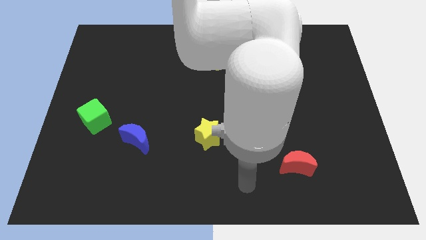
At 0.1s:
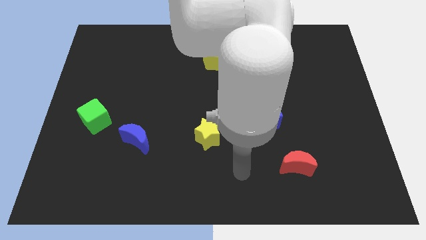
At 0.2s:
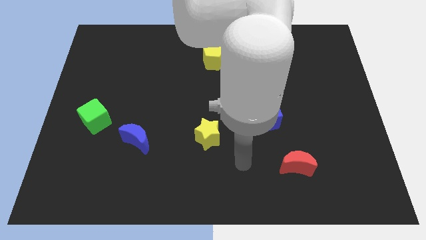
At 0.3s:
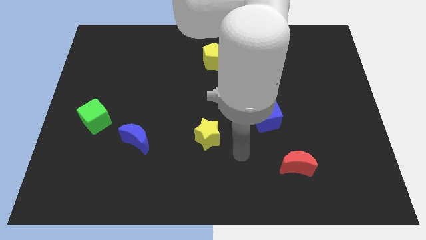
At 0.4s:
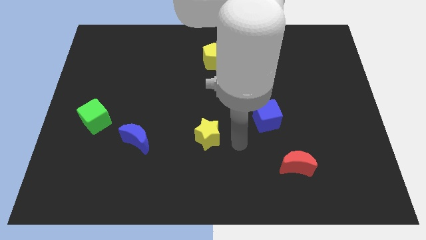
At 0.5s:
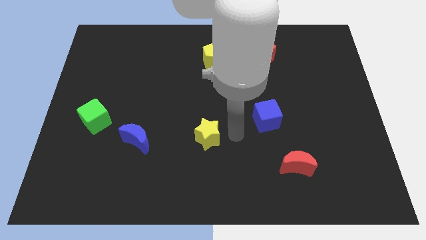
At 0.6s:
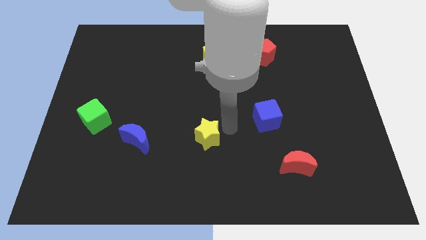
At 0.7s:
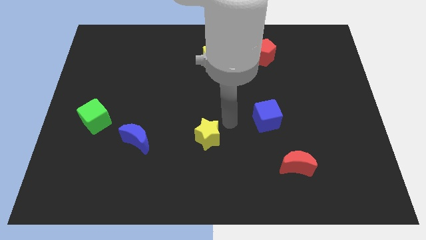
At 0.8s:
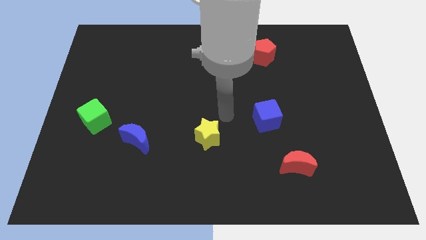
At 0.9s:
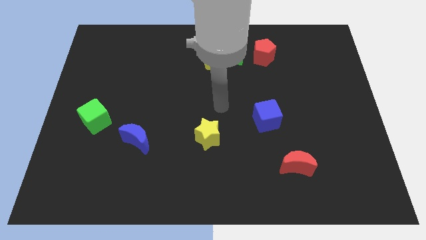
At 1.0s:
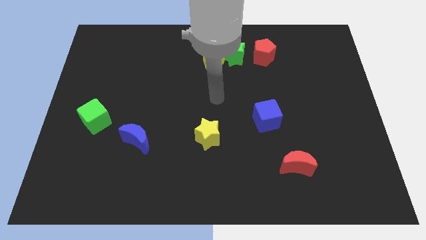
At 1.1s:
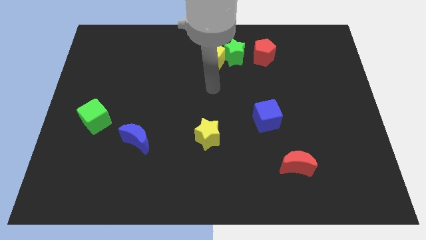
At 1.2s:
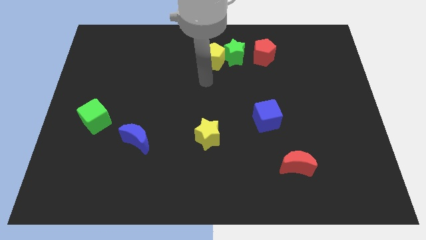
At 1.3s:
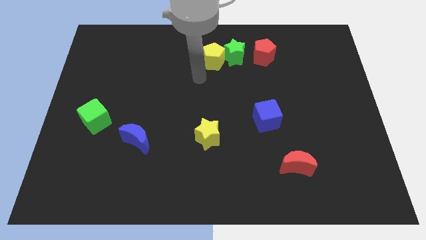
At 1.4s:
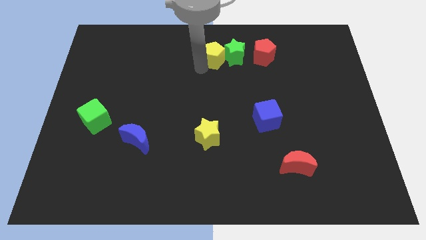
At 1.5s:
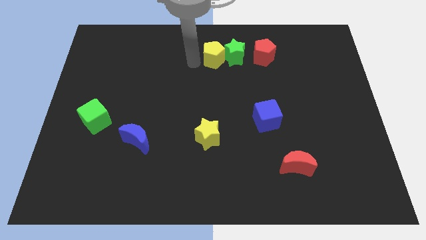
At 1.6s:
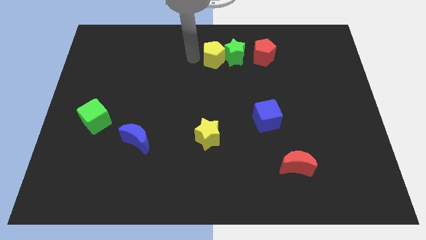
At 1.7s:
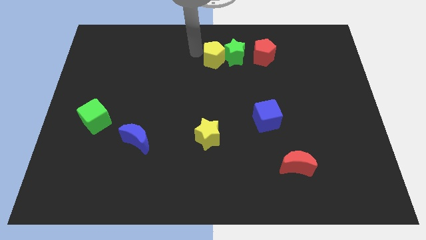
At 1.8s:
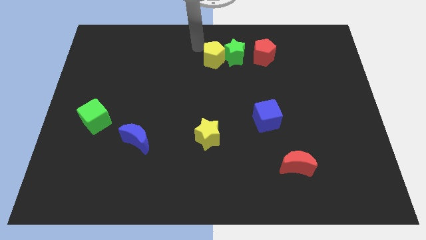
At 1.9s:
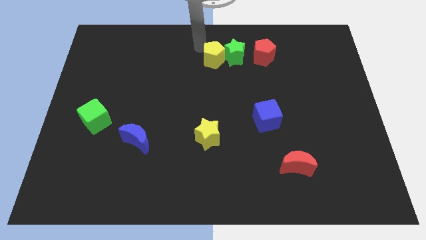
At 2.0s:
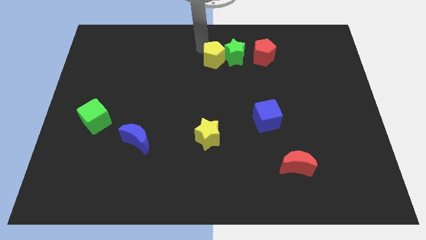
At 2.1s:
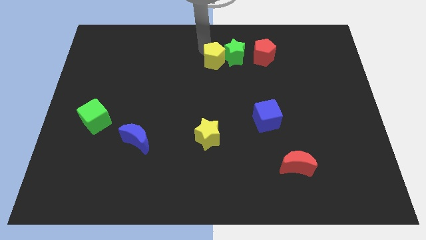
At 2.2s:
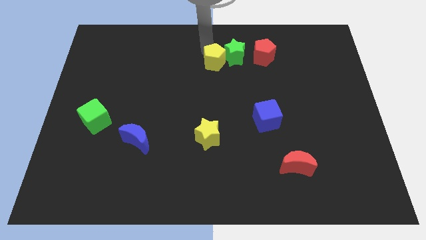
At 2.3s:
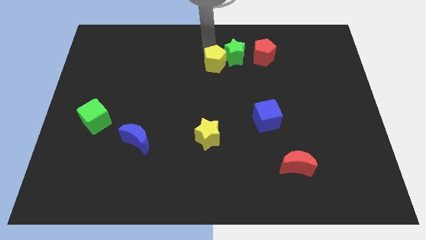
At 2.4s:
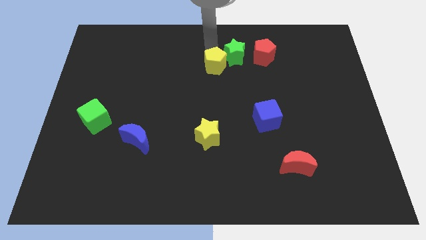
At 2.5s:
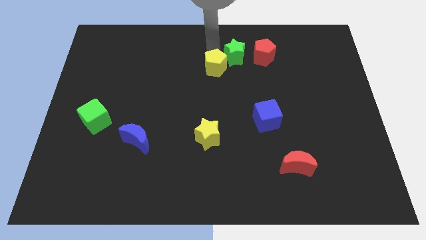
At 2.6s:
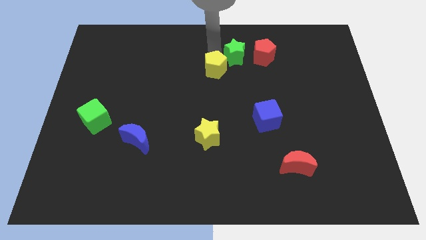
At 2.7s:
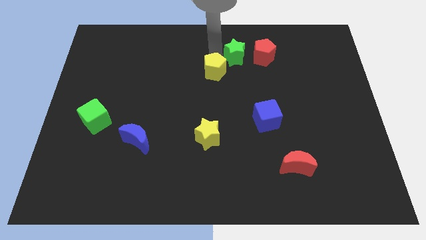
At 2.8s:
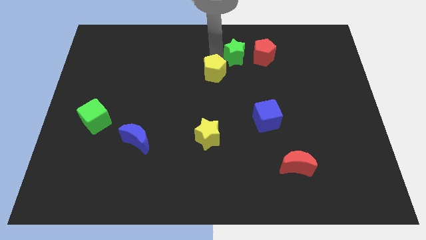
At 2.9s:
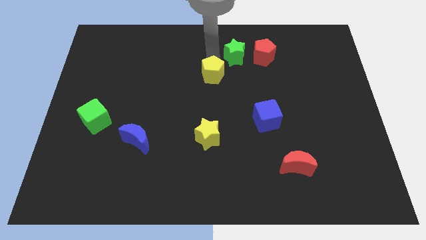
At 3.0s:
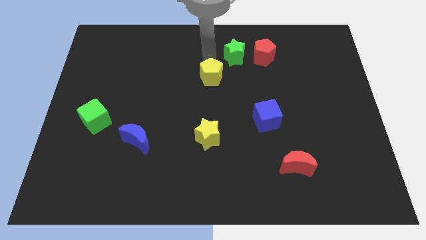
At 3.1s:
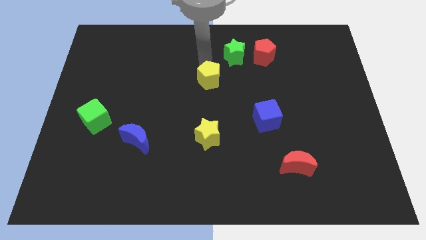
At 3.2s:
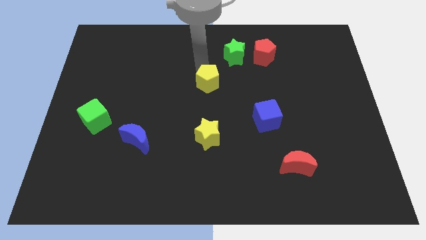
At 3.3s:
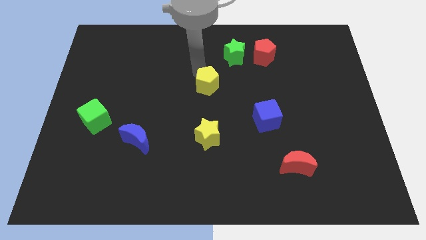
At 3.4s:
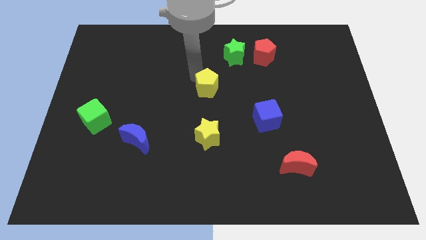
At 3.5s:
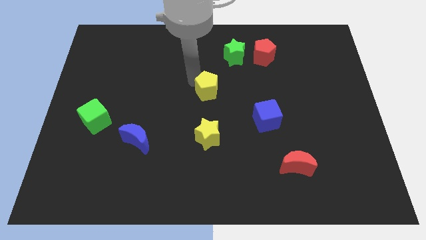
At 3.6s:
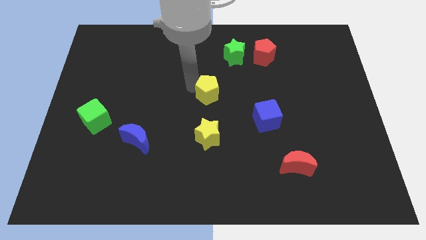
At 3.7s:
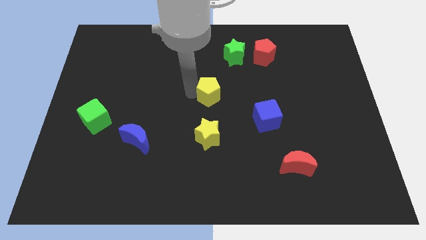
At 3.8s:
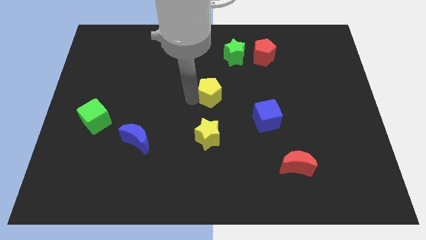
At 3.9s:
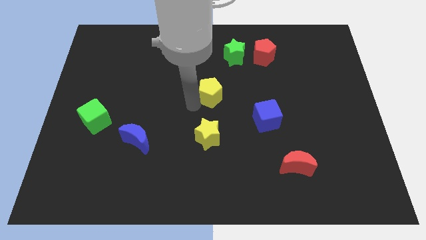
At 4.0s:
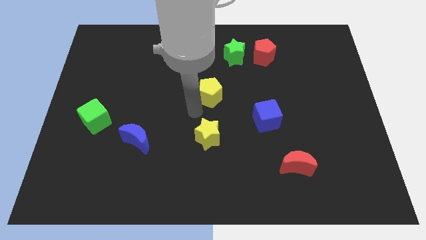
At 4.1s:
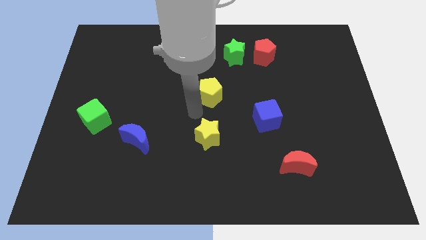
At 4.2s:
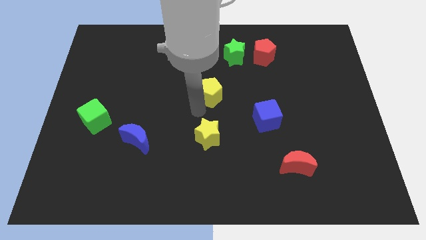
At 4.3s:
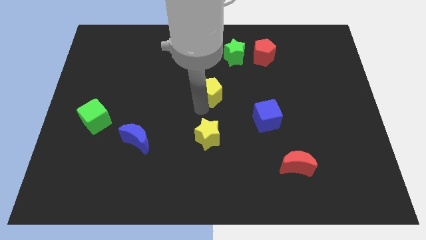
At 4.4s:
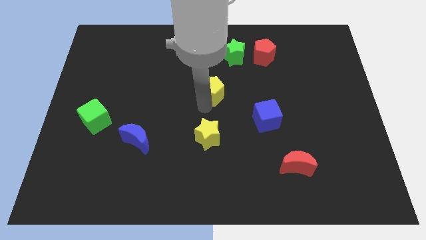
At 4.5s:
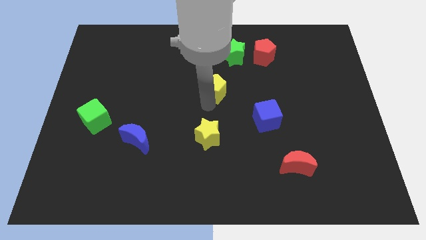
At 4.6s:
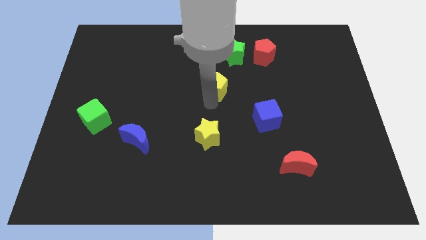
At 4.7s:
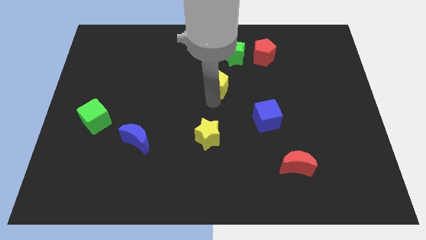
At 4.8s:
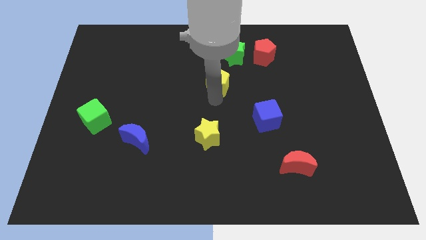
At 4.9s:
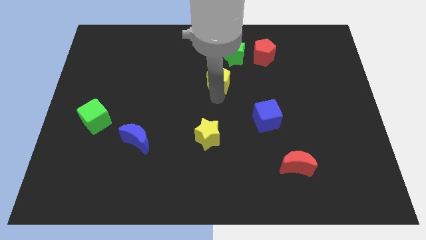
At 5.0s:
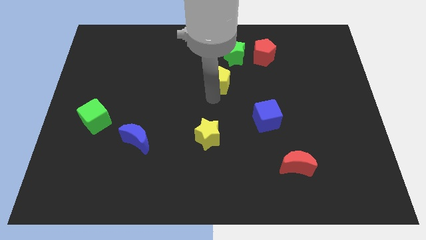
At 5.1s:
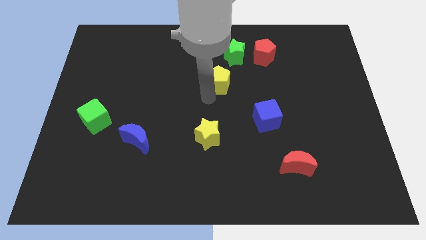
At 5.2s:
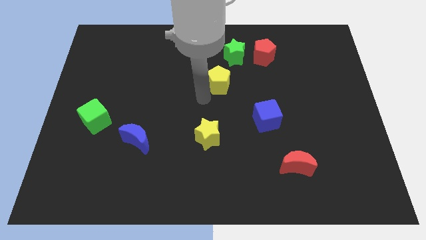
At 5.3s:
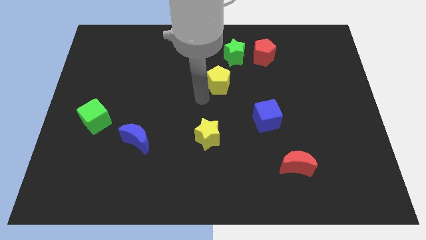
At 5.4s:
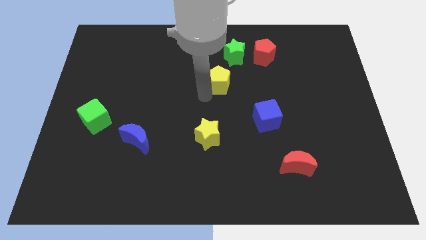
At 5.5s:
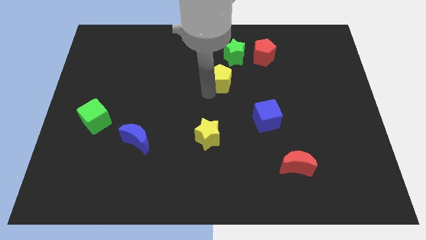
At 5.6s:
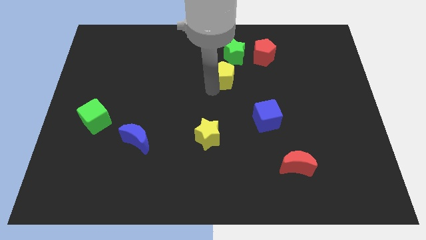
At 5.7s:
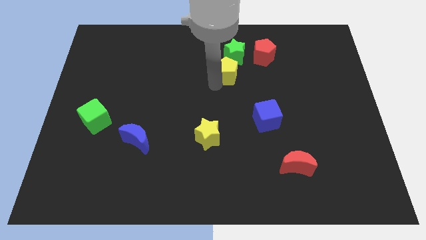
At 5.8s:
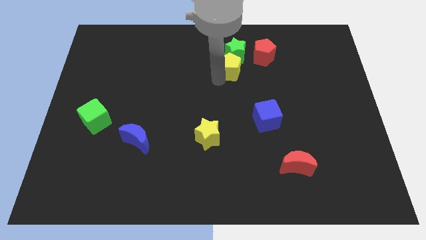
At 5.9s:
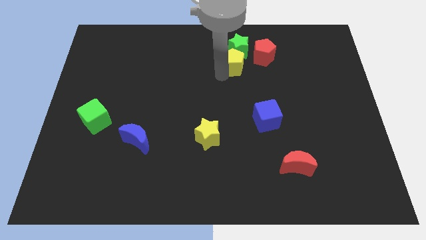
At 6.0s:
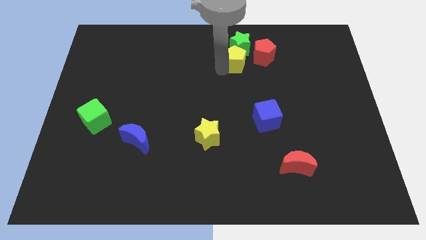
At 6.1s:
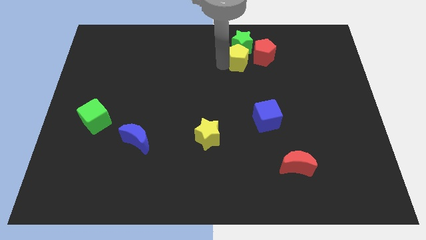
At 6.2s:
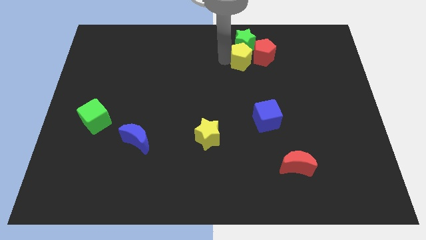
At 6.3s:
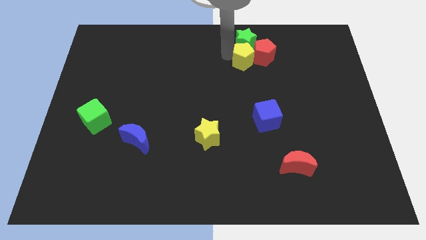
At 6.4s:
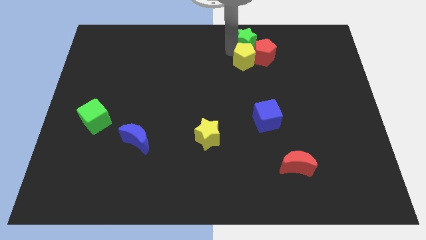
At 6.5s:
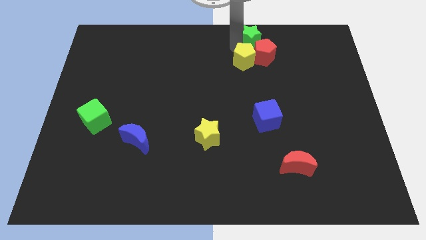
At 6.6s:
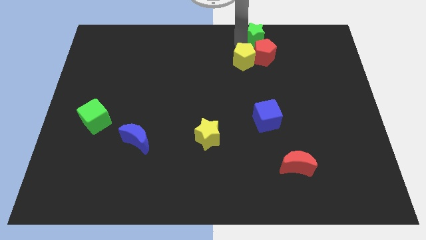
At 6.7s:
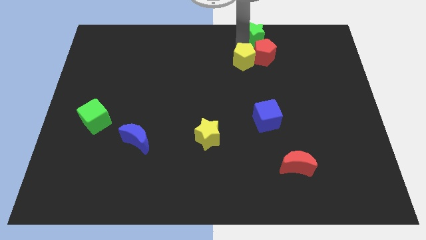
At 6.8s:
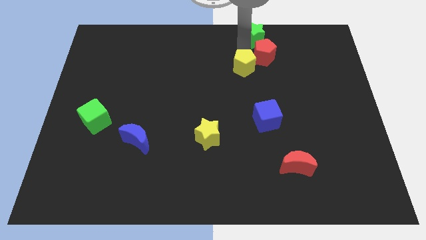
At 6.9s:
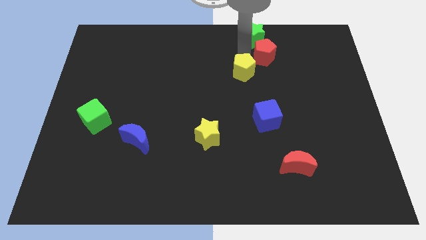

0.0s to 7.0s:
slide the yellow pentagon downwards and then to the right somewhat

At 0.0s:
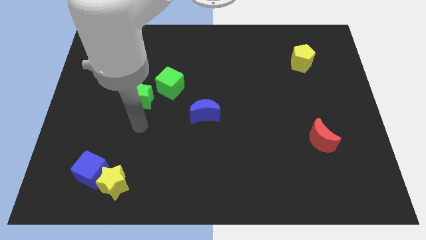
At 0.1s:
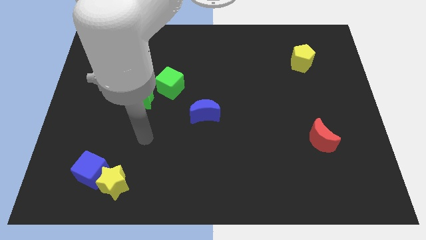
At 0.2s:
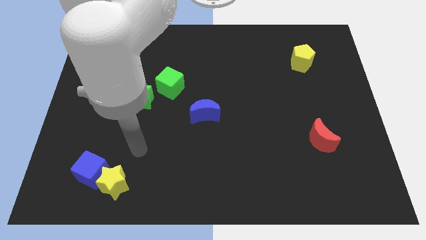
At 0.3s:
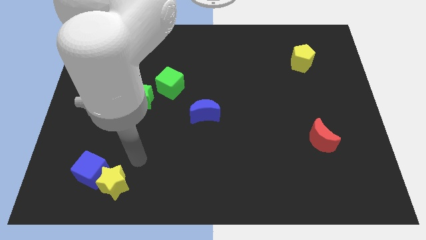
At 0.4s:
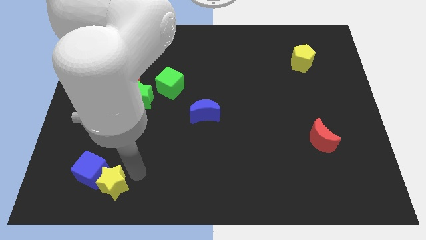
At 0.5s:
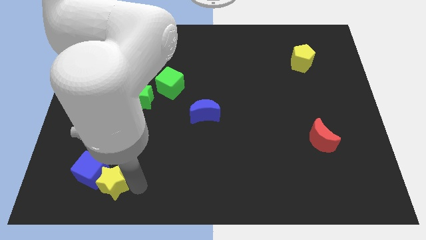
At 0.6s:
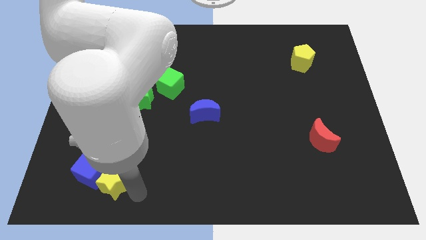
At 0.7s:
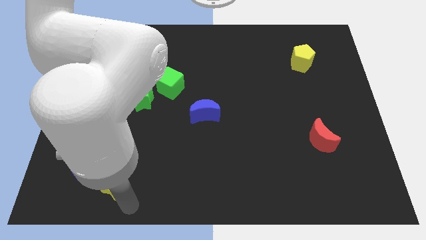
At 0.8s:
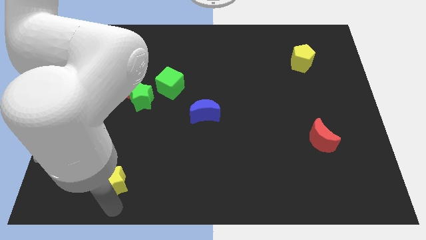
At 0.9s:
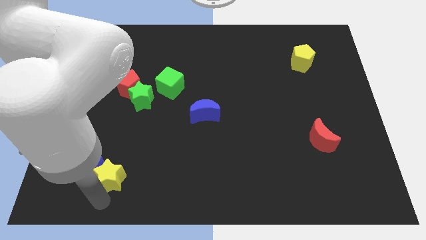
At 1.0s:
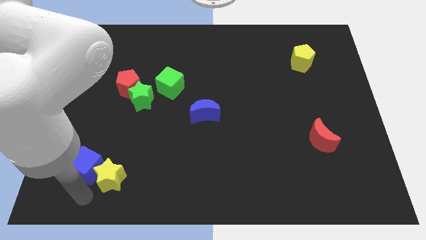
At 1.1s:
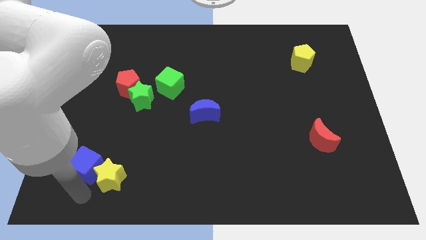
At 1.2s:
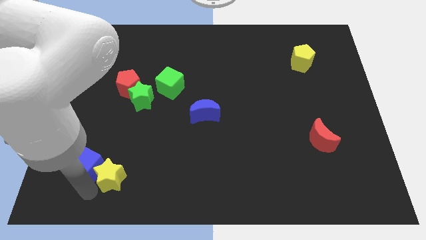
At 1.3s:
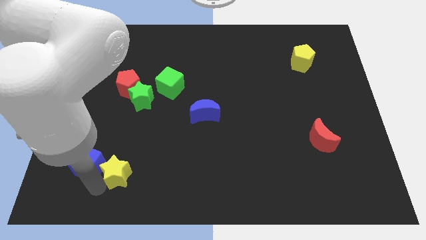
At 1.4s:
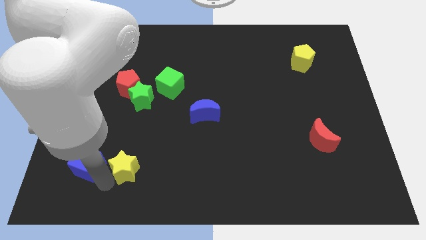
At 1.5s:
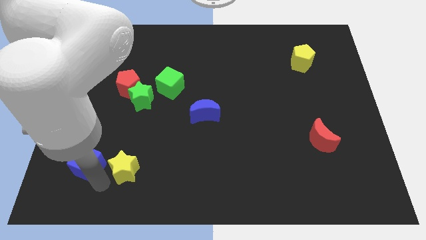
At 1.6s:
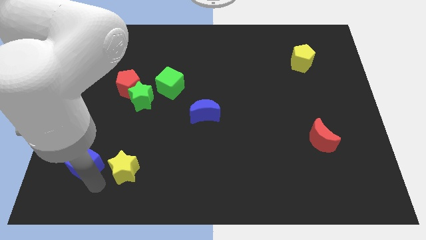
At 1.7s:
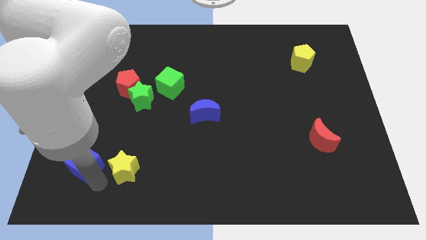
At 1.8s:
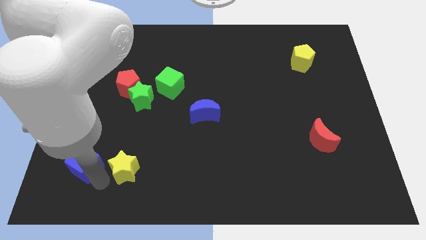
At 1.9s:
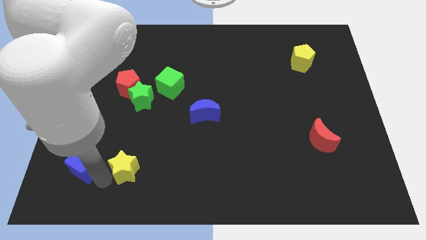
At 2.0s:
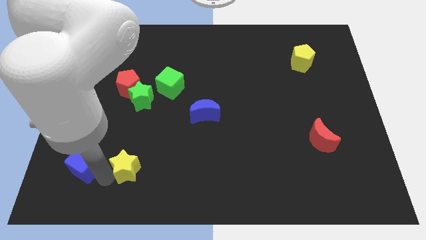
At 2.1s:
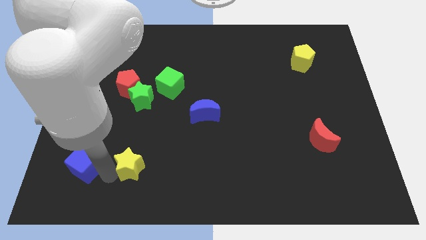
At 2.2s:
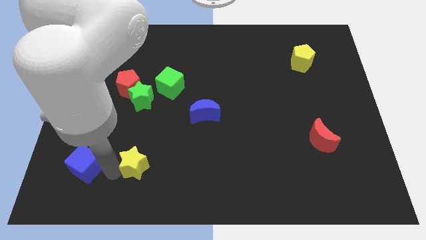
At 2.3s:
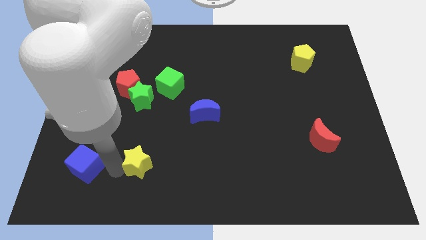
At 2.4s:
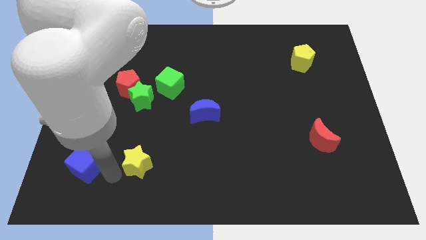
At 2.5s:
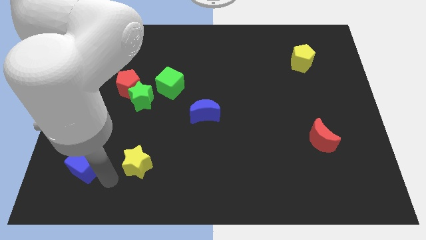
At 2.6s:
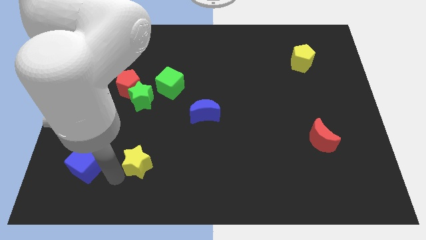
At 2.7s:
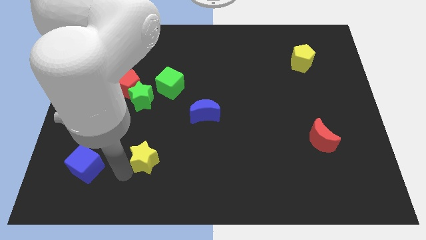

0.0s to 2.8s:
slightly move the yellow star up and right diagonally
